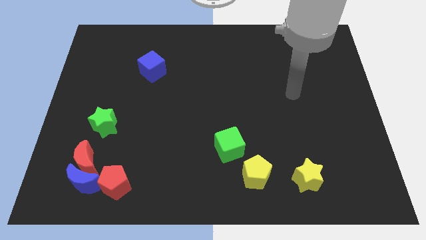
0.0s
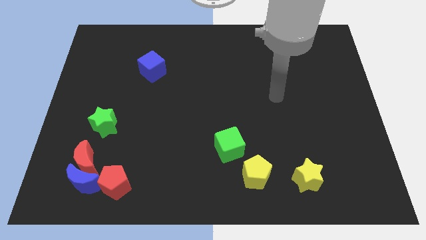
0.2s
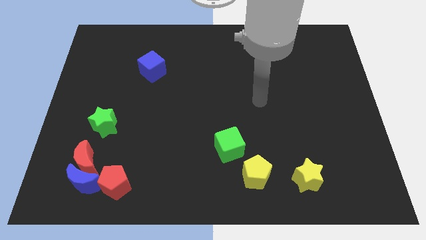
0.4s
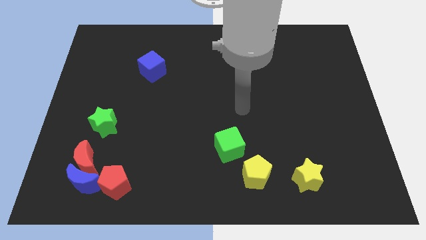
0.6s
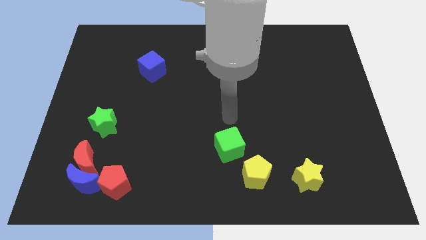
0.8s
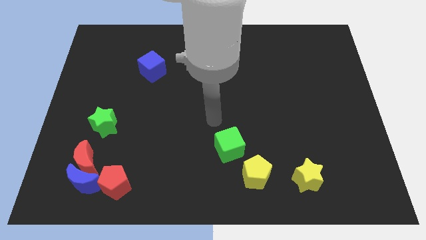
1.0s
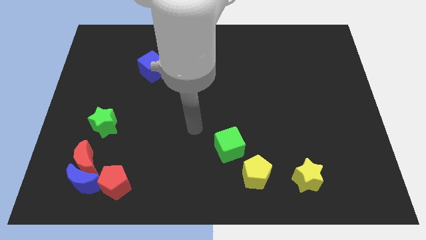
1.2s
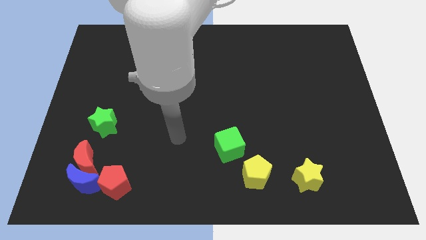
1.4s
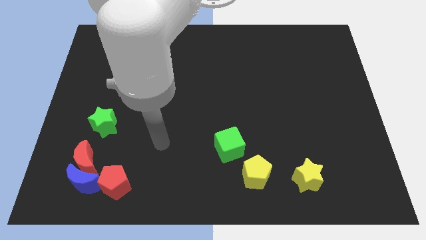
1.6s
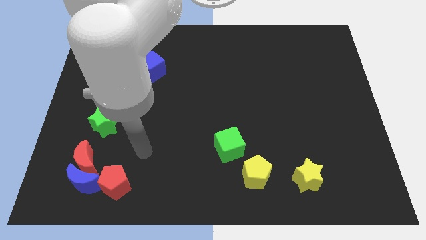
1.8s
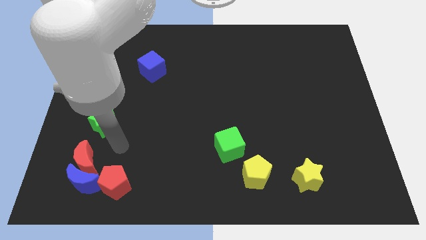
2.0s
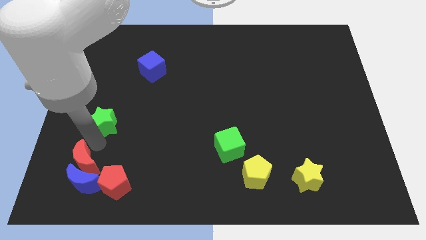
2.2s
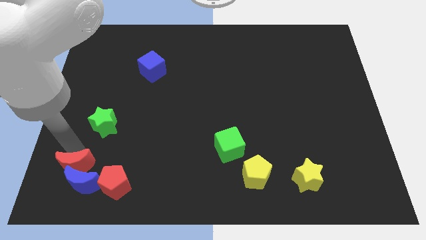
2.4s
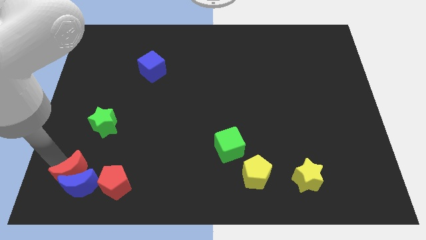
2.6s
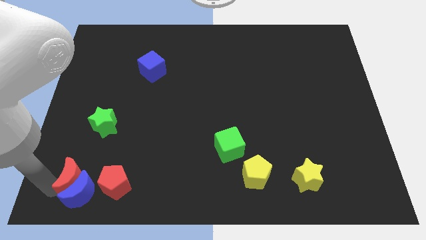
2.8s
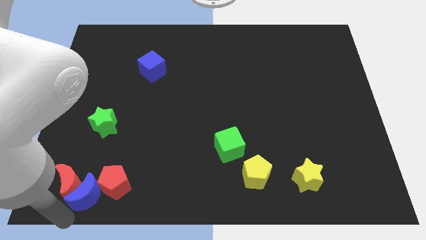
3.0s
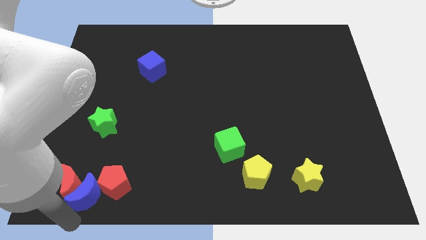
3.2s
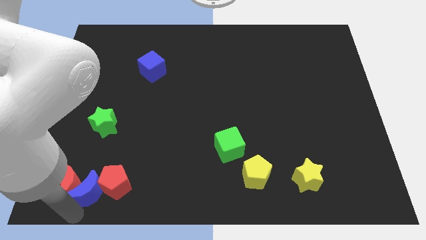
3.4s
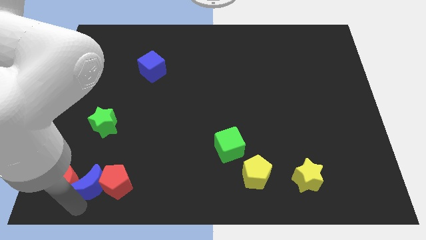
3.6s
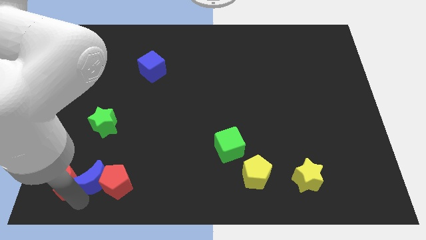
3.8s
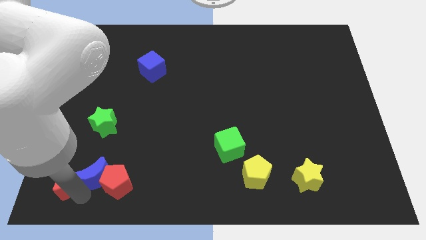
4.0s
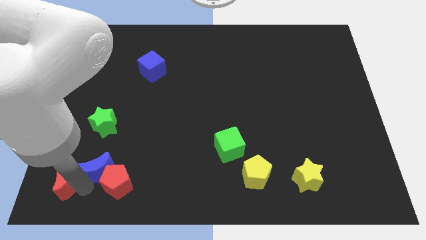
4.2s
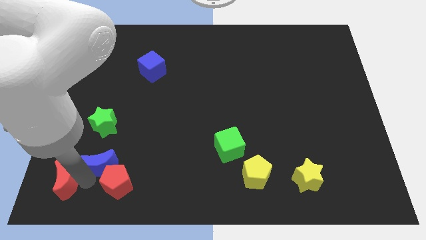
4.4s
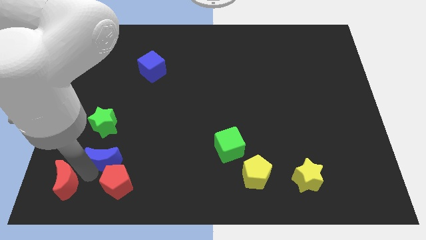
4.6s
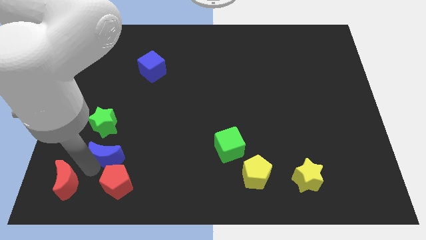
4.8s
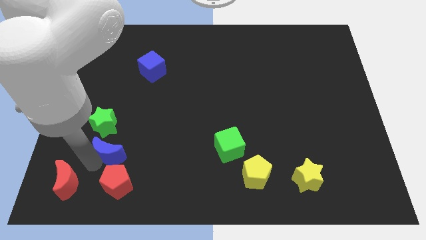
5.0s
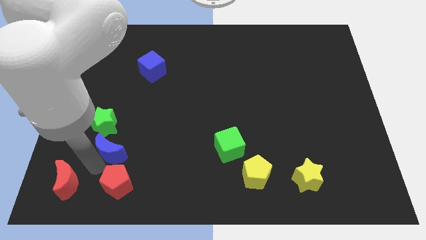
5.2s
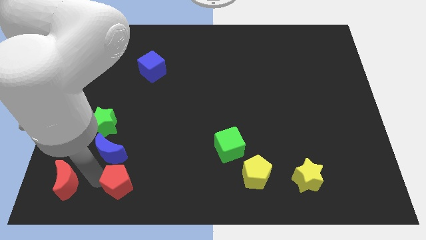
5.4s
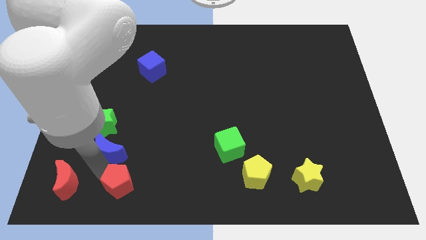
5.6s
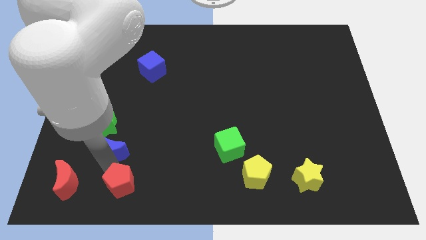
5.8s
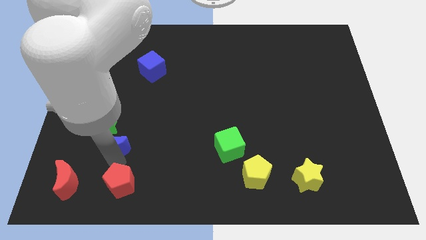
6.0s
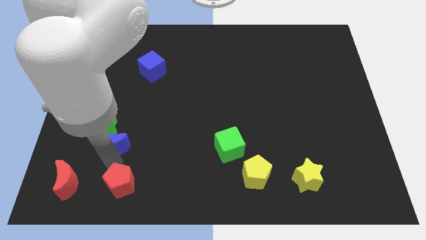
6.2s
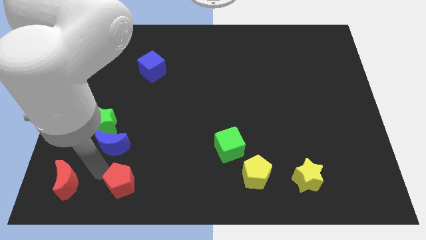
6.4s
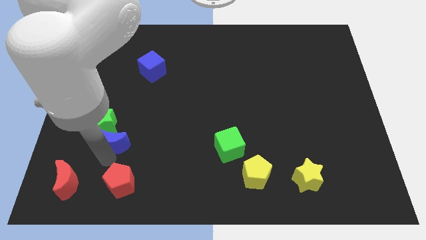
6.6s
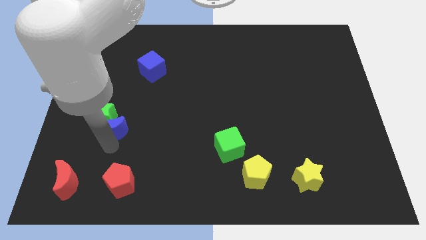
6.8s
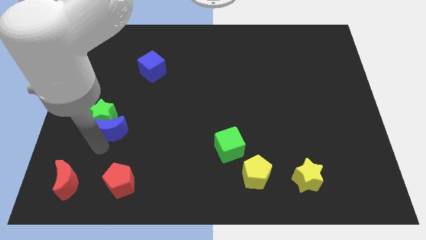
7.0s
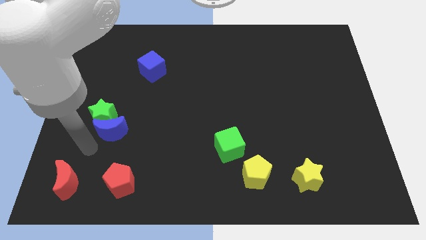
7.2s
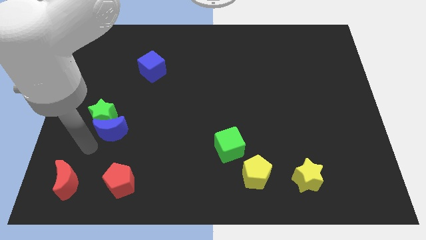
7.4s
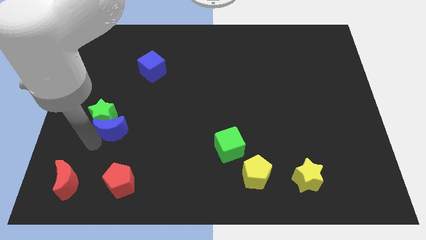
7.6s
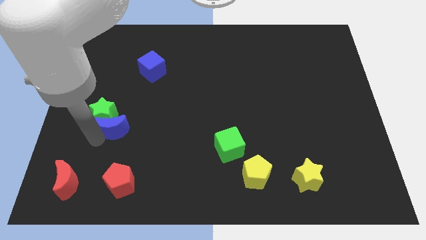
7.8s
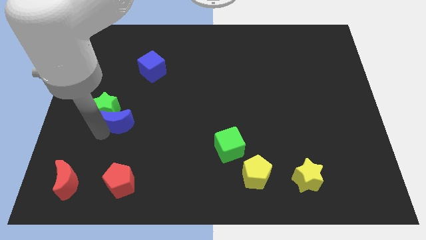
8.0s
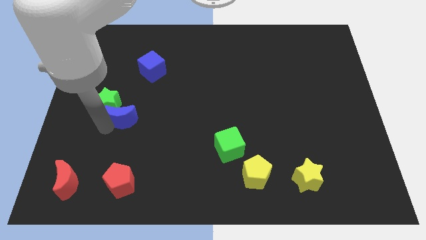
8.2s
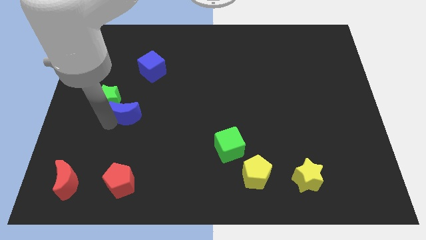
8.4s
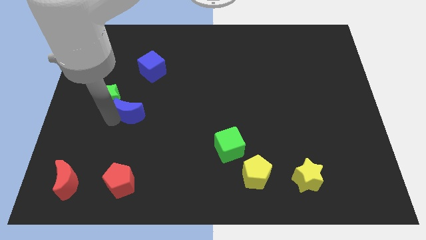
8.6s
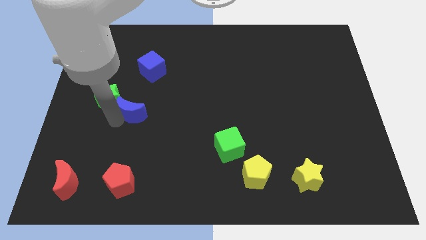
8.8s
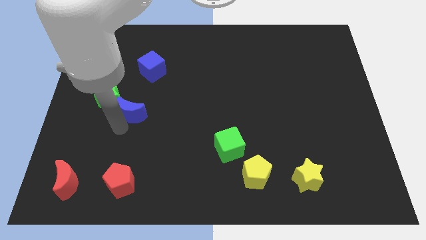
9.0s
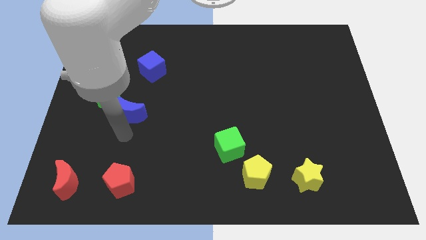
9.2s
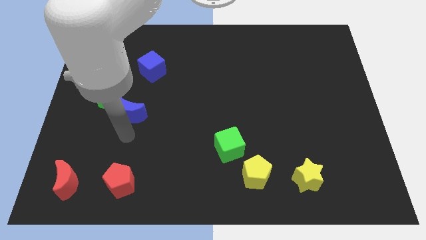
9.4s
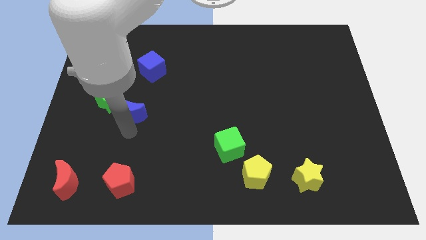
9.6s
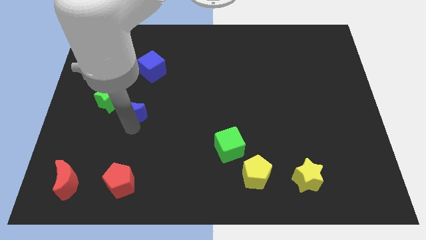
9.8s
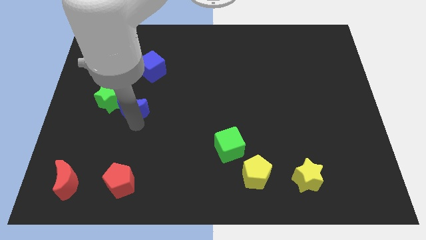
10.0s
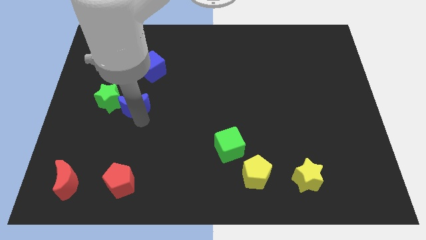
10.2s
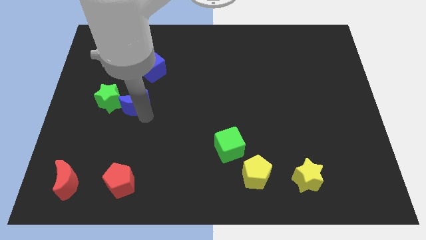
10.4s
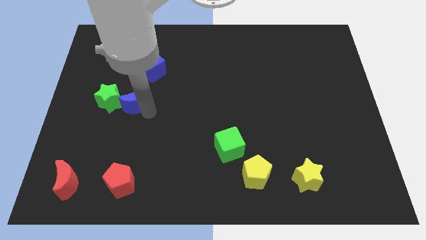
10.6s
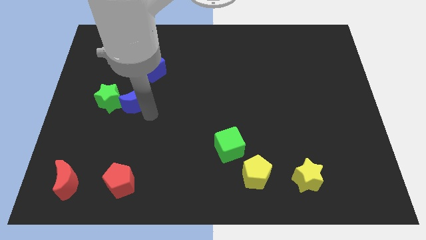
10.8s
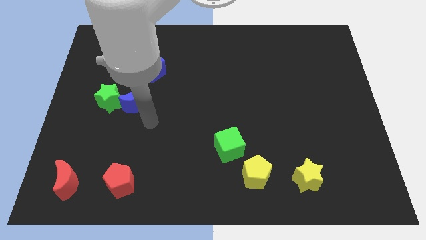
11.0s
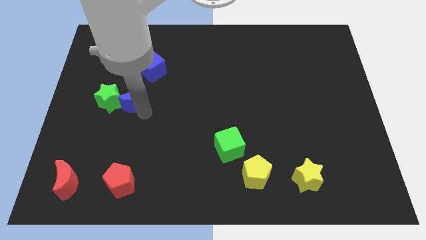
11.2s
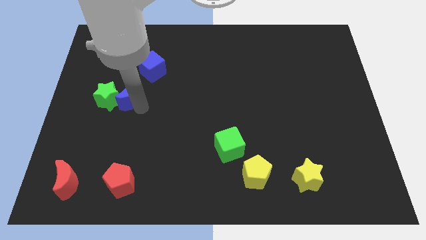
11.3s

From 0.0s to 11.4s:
move the blue moon up

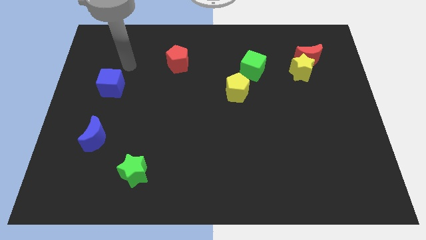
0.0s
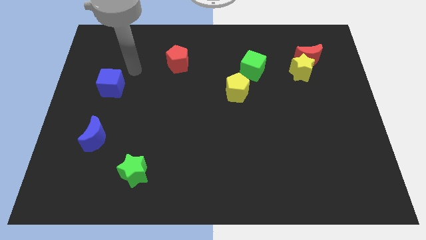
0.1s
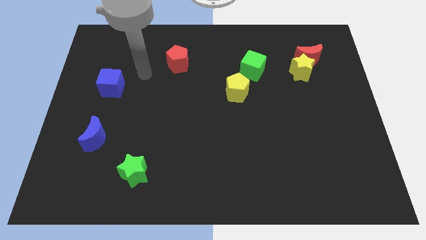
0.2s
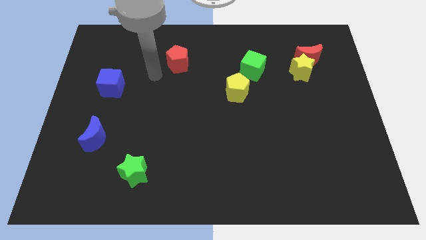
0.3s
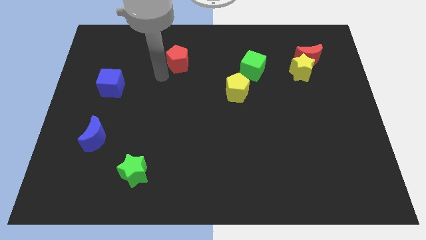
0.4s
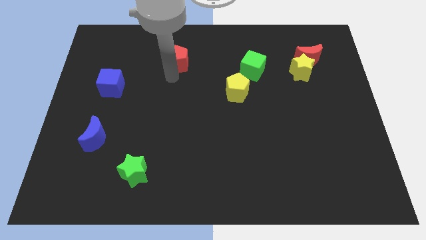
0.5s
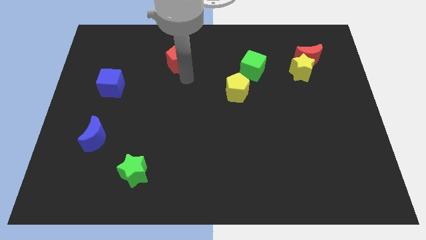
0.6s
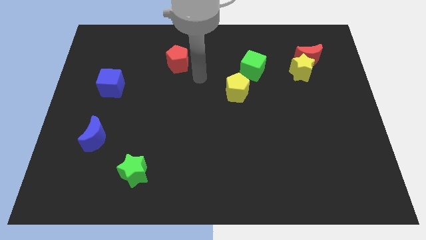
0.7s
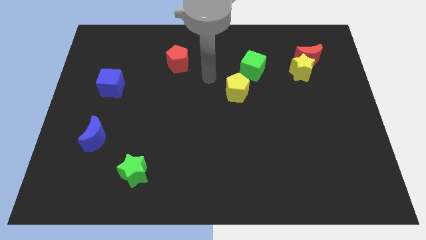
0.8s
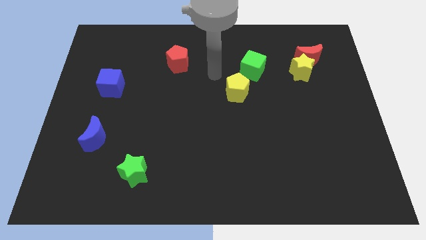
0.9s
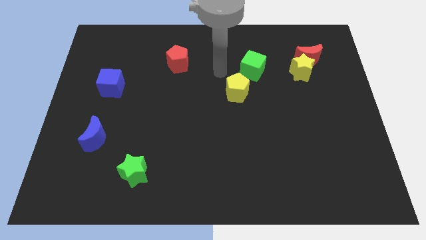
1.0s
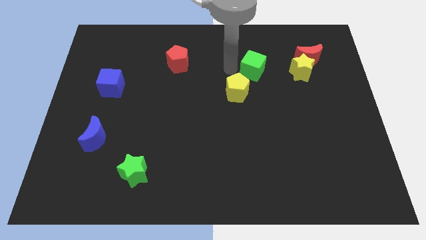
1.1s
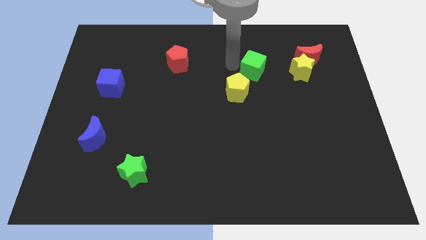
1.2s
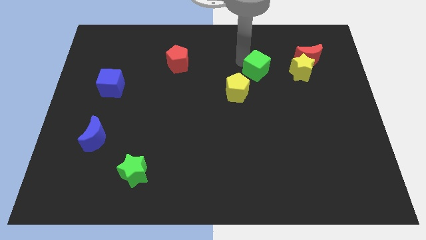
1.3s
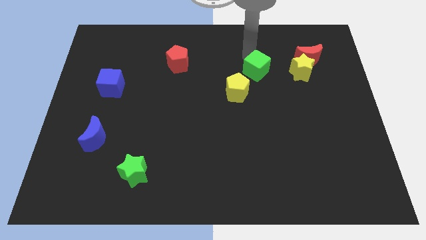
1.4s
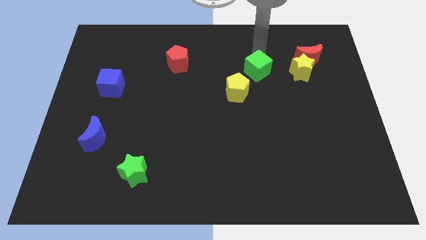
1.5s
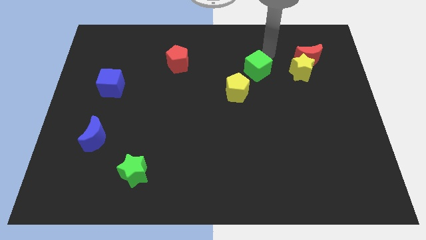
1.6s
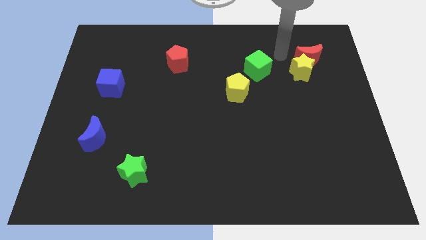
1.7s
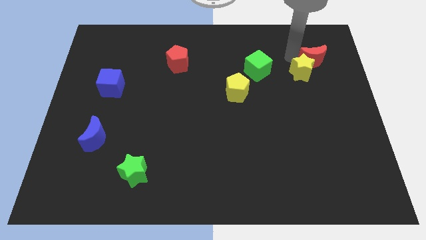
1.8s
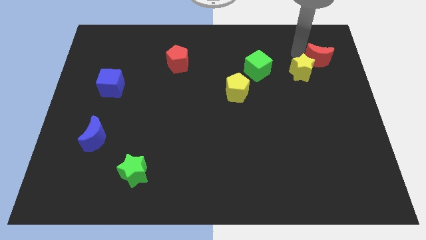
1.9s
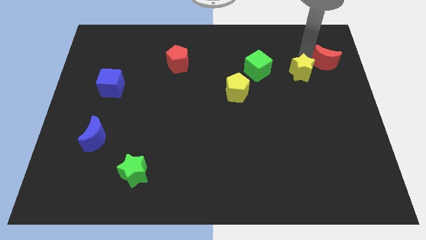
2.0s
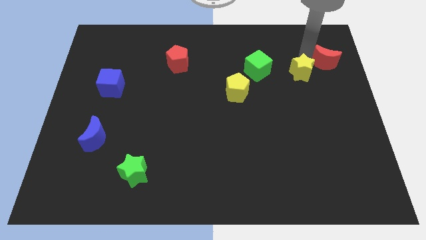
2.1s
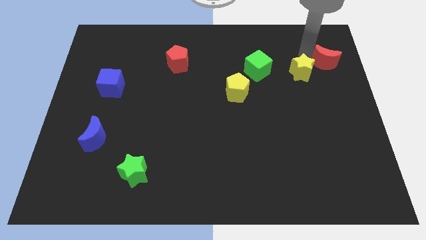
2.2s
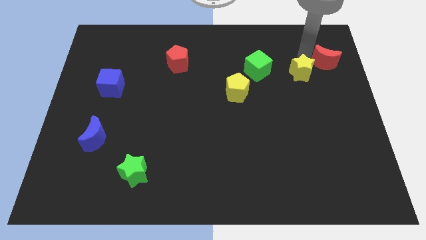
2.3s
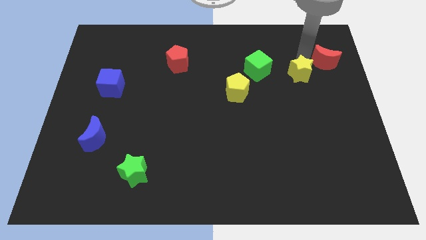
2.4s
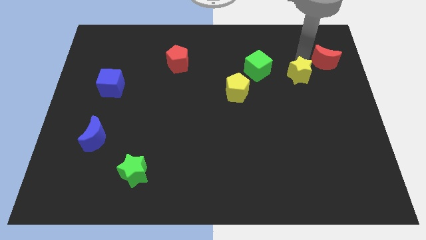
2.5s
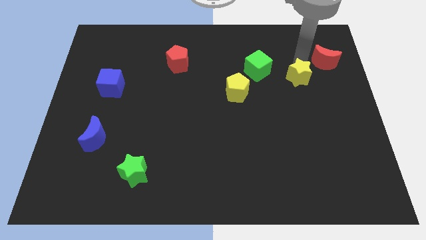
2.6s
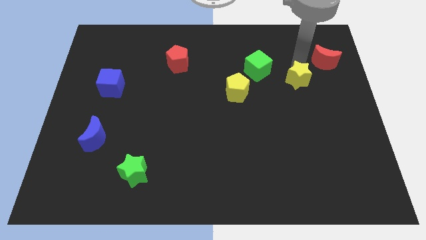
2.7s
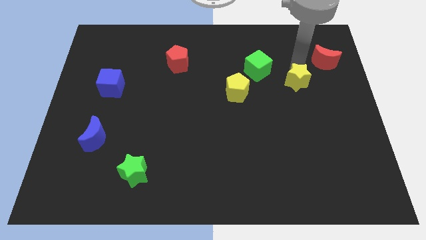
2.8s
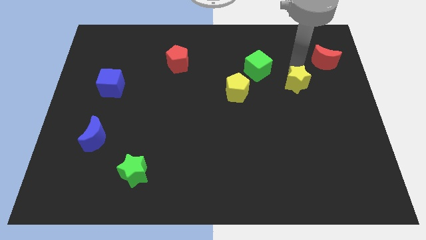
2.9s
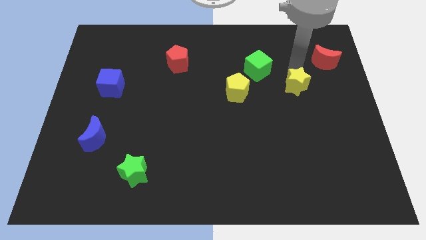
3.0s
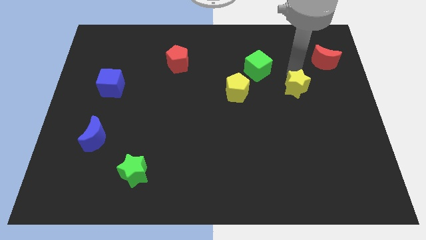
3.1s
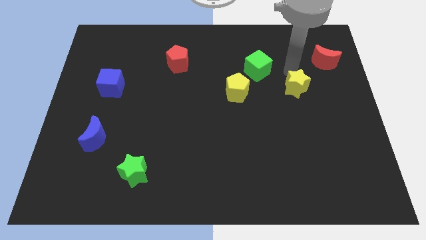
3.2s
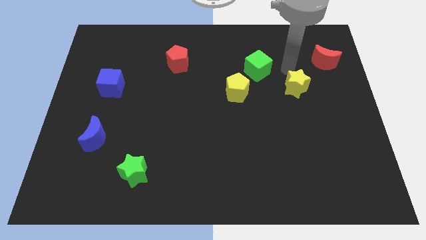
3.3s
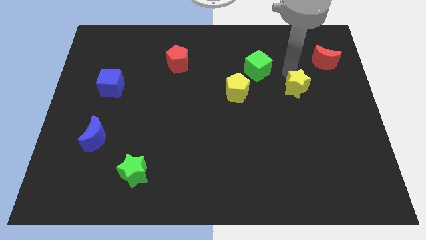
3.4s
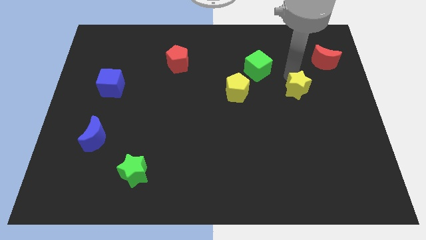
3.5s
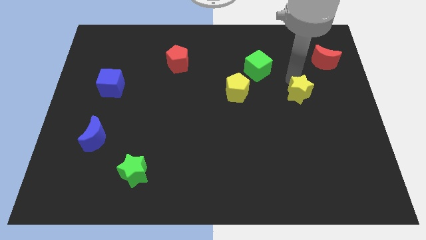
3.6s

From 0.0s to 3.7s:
move the yellow star downwards a little
